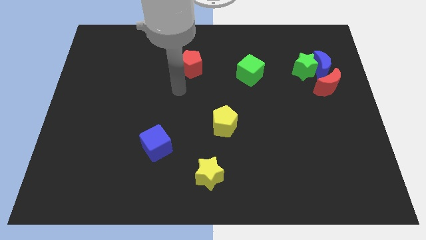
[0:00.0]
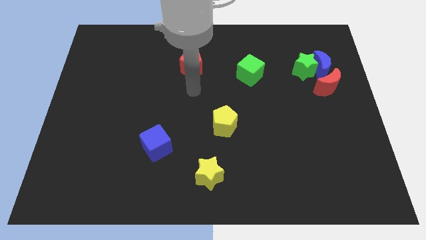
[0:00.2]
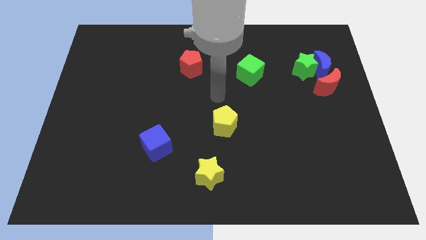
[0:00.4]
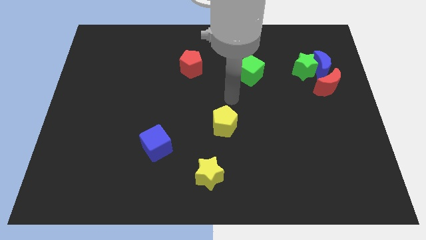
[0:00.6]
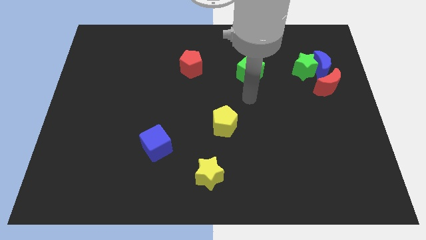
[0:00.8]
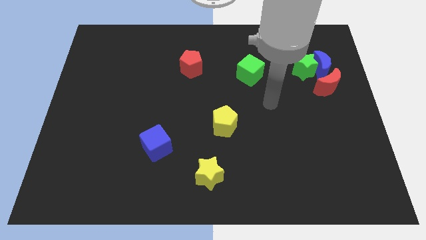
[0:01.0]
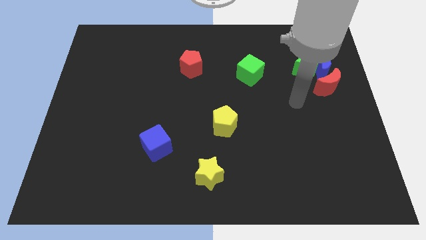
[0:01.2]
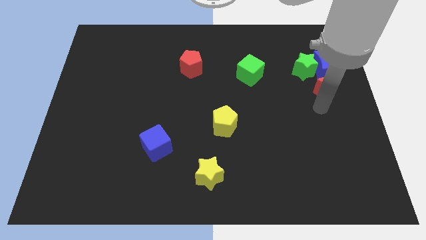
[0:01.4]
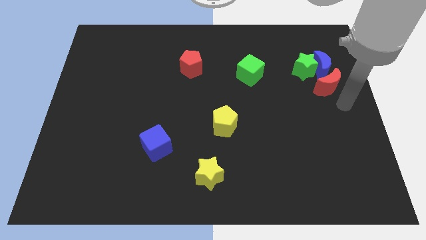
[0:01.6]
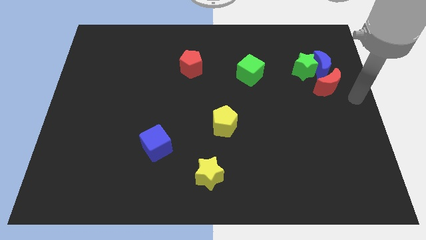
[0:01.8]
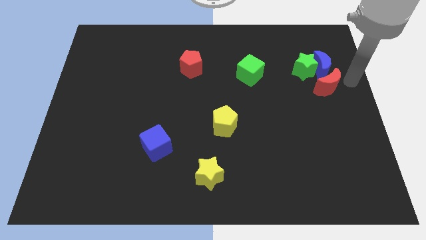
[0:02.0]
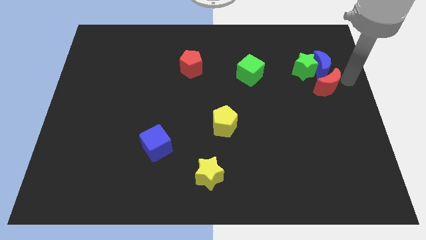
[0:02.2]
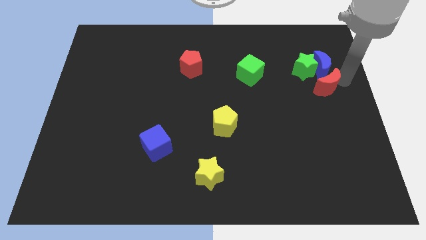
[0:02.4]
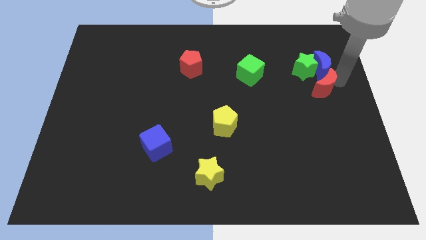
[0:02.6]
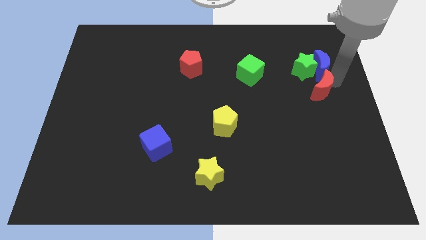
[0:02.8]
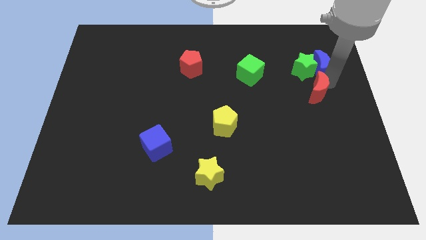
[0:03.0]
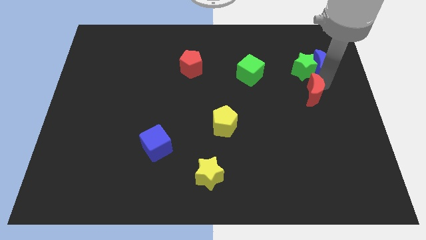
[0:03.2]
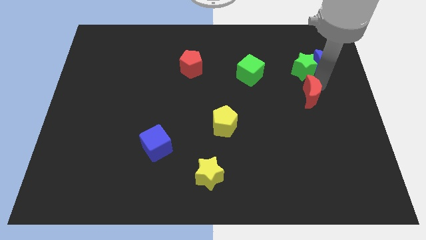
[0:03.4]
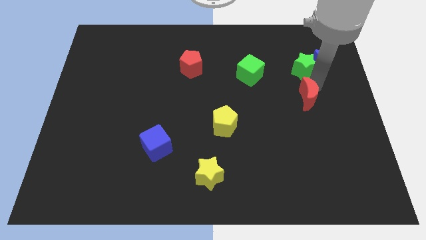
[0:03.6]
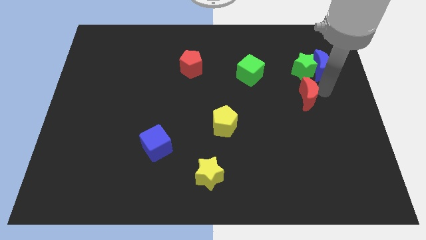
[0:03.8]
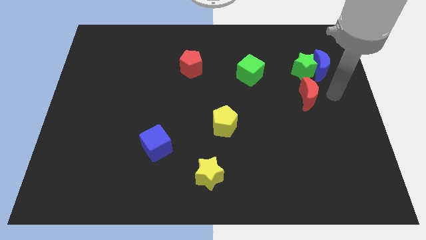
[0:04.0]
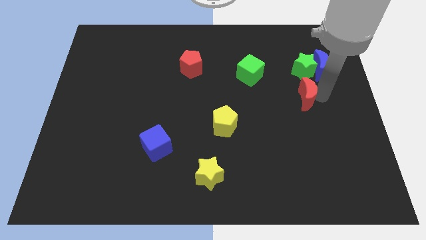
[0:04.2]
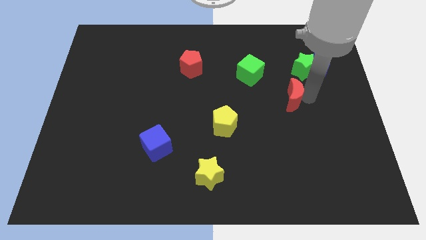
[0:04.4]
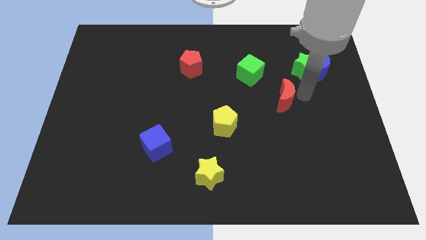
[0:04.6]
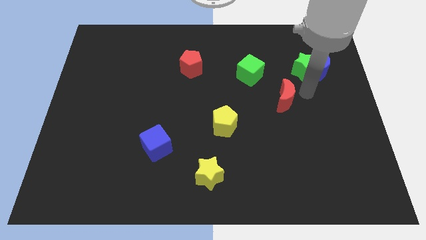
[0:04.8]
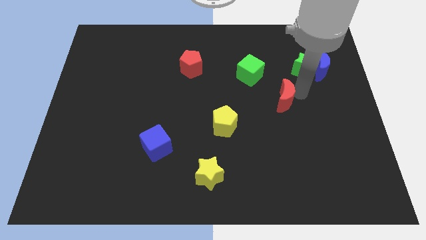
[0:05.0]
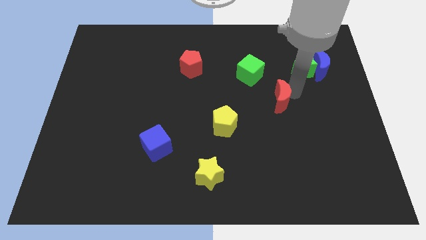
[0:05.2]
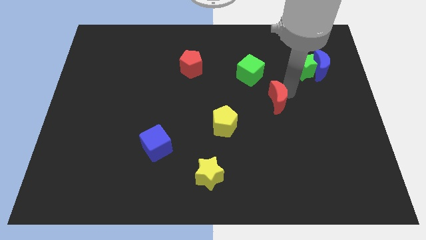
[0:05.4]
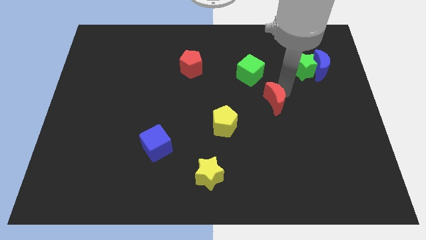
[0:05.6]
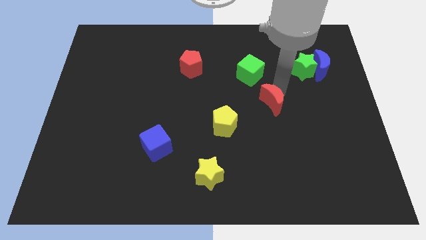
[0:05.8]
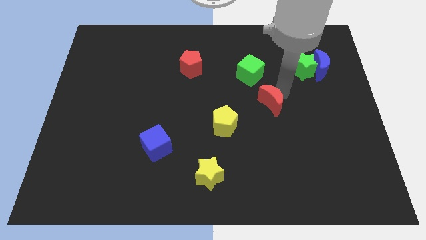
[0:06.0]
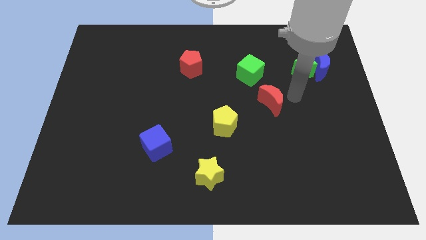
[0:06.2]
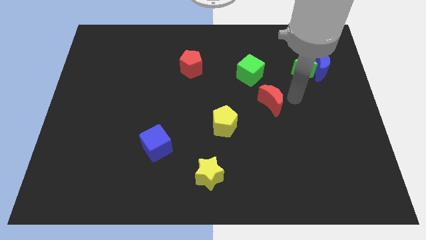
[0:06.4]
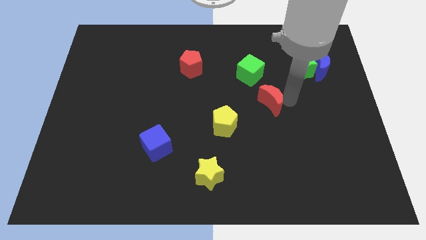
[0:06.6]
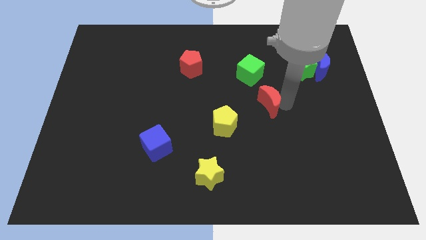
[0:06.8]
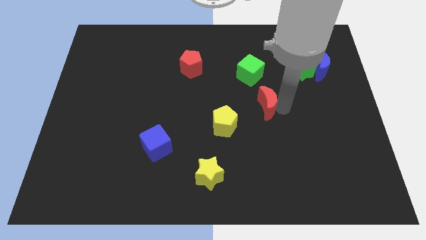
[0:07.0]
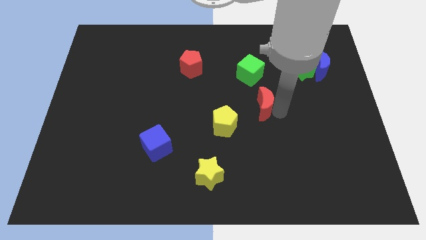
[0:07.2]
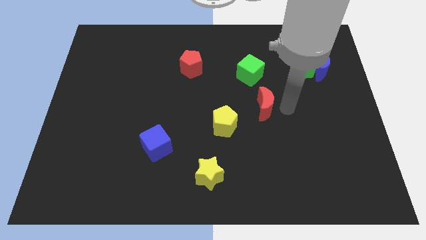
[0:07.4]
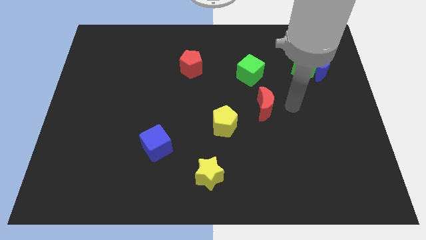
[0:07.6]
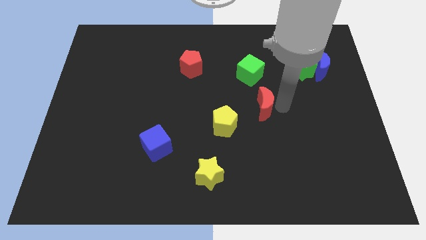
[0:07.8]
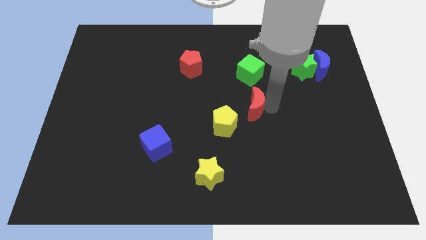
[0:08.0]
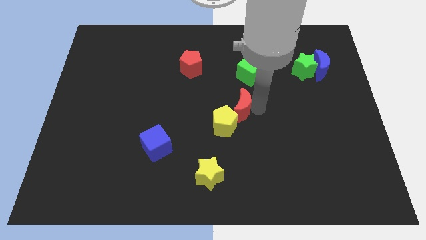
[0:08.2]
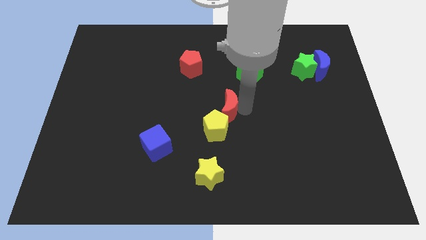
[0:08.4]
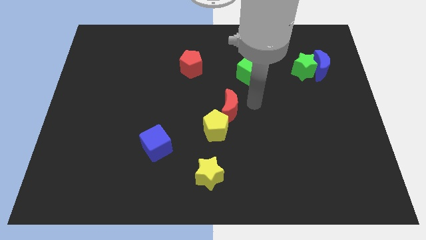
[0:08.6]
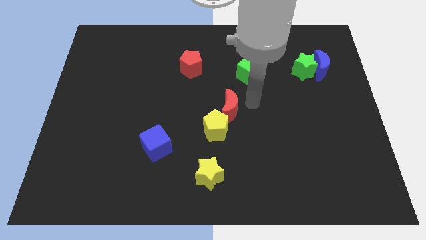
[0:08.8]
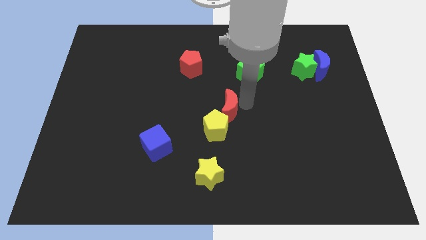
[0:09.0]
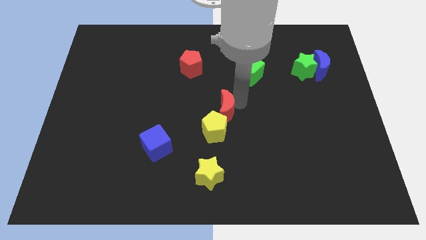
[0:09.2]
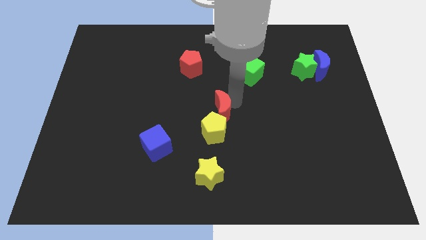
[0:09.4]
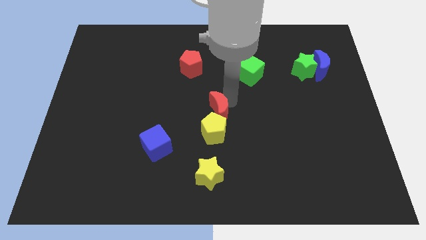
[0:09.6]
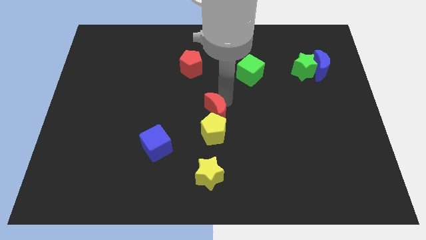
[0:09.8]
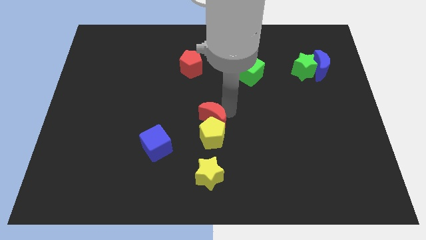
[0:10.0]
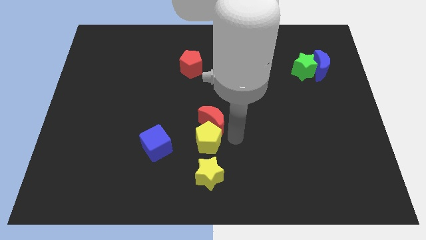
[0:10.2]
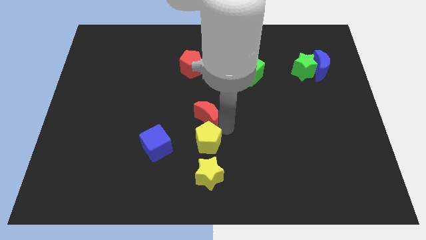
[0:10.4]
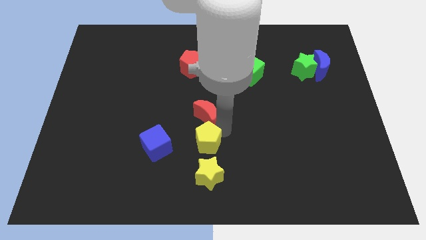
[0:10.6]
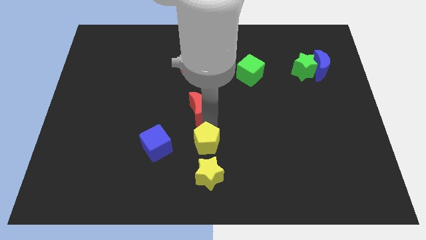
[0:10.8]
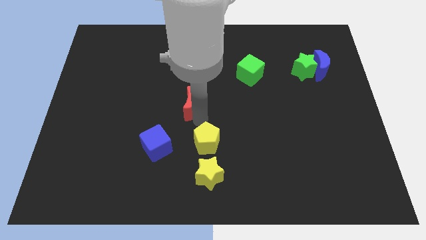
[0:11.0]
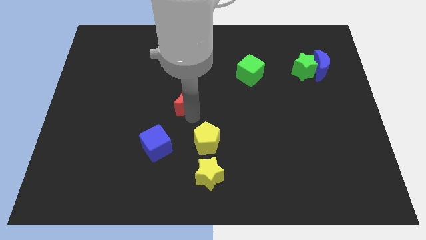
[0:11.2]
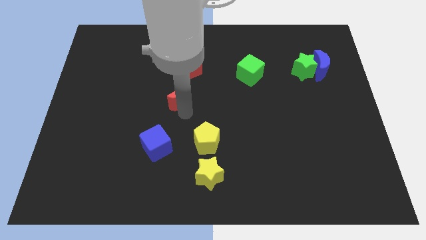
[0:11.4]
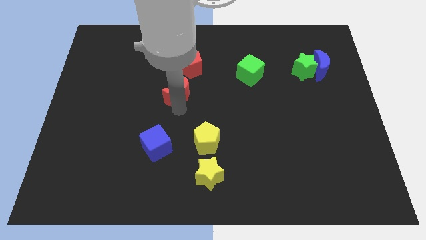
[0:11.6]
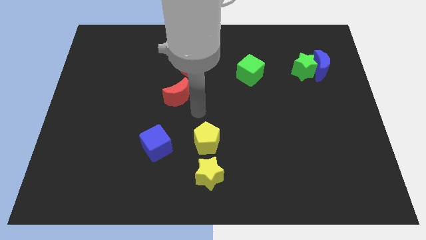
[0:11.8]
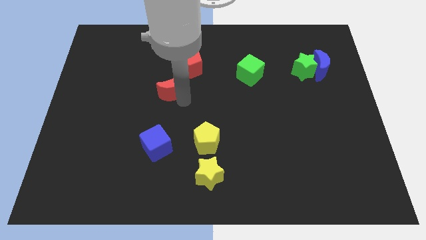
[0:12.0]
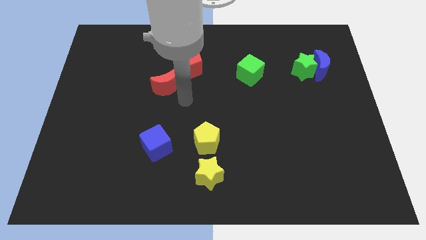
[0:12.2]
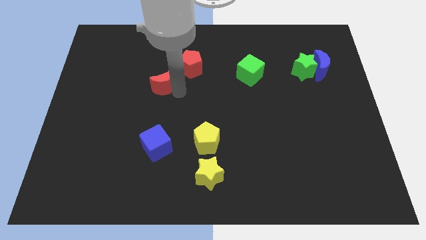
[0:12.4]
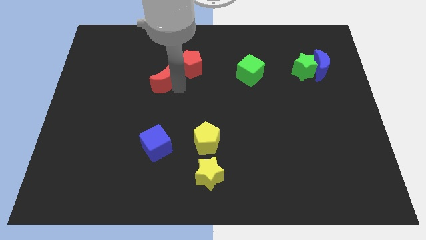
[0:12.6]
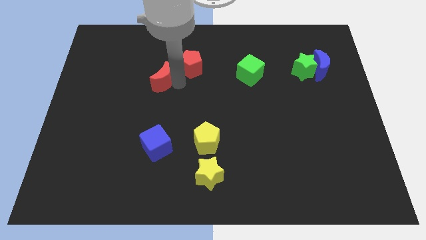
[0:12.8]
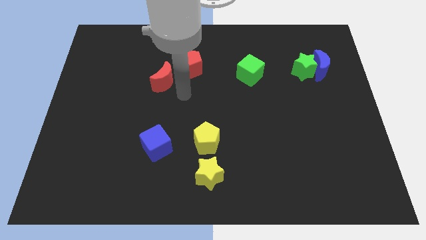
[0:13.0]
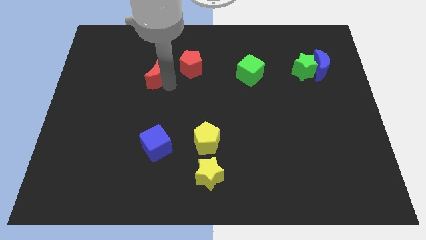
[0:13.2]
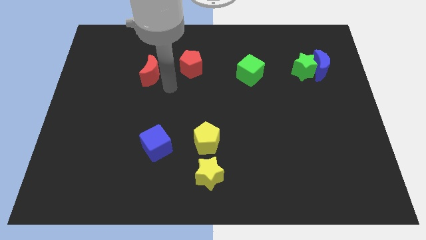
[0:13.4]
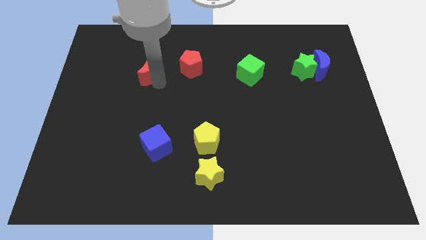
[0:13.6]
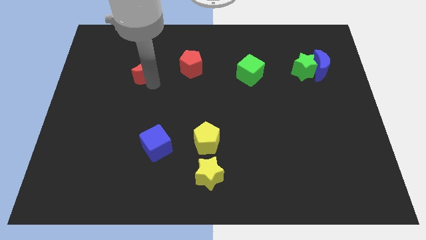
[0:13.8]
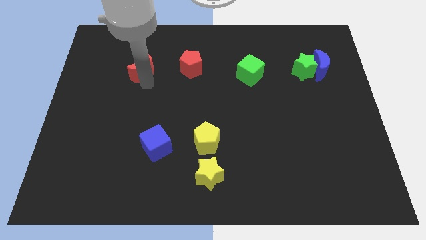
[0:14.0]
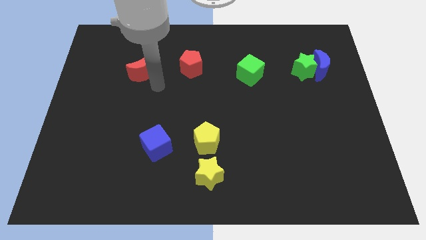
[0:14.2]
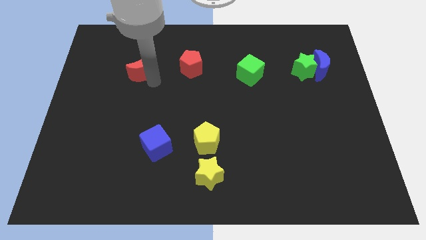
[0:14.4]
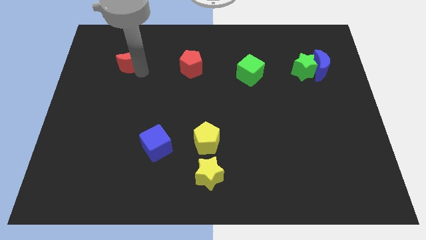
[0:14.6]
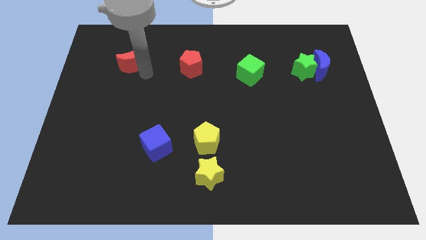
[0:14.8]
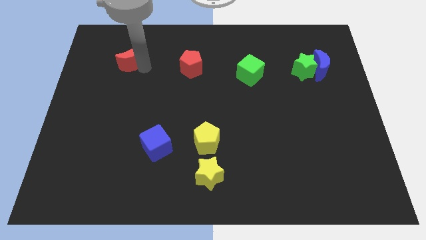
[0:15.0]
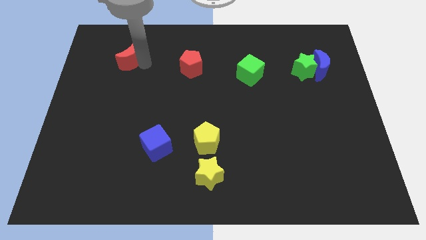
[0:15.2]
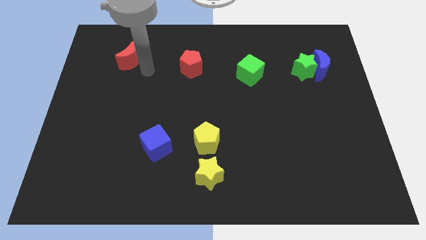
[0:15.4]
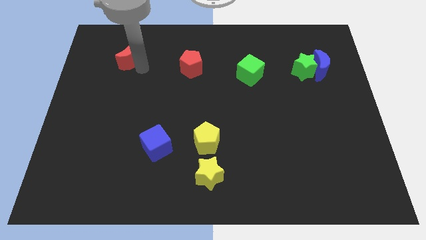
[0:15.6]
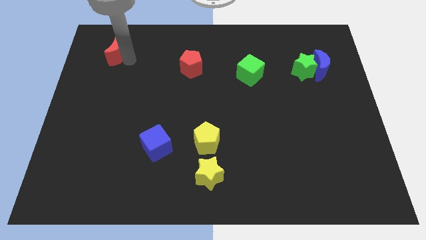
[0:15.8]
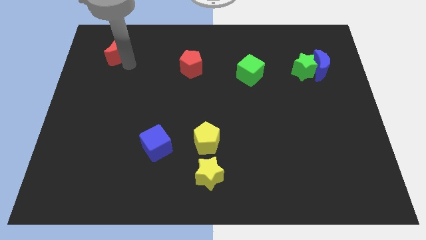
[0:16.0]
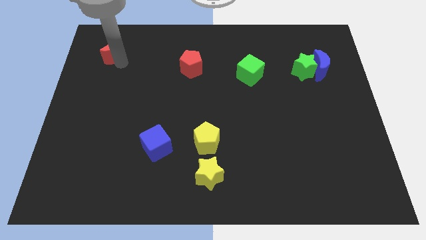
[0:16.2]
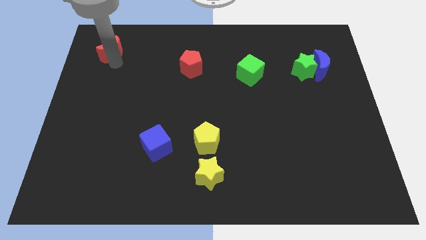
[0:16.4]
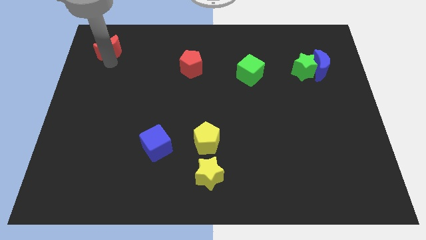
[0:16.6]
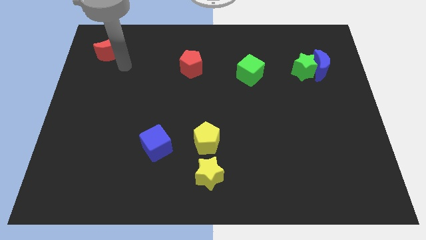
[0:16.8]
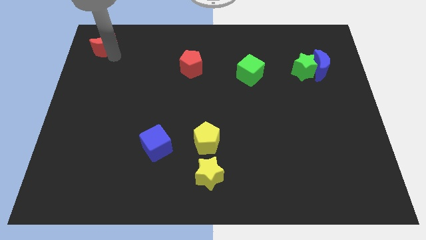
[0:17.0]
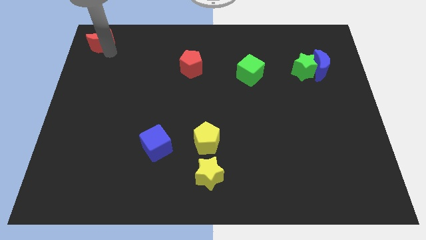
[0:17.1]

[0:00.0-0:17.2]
move the red moon to the top left of the board
